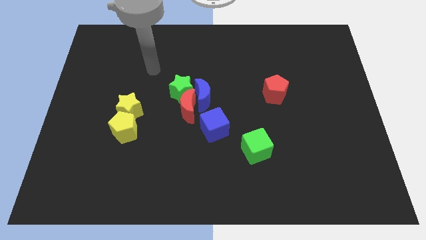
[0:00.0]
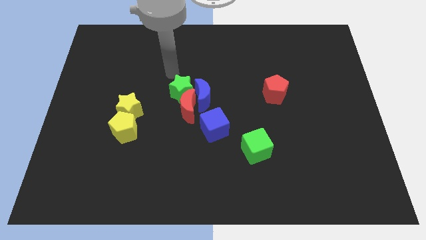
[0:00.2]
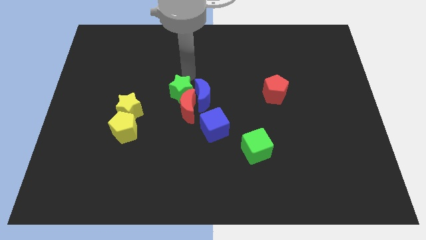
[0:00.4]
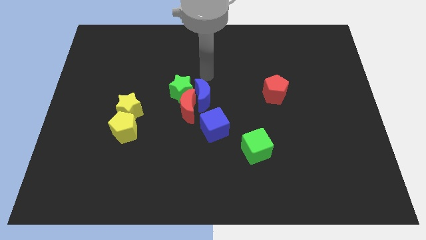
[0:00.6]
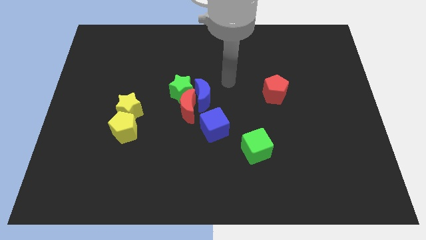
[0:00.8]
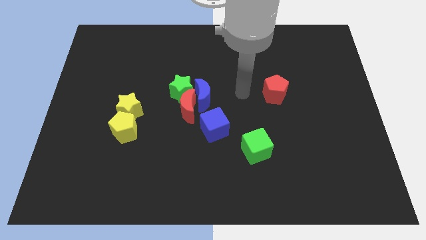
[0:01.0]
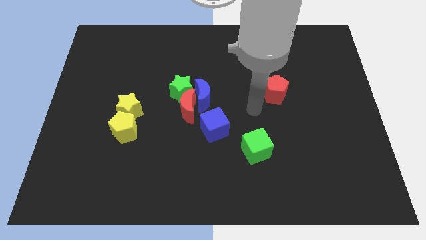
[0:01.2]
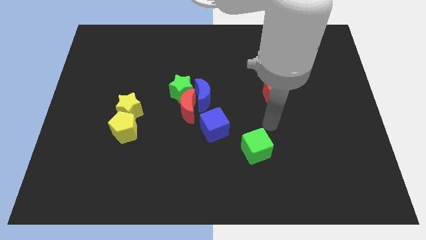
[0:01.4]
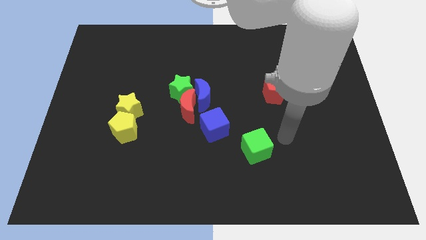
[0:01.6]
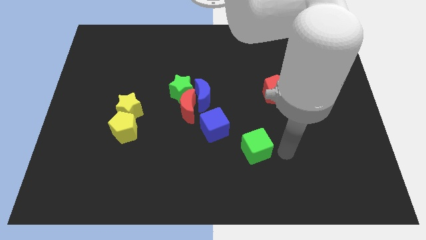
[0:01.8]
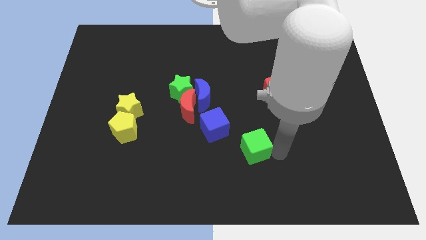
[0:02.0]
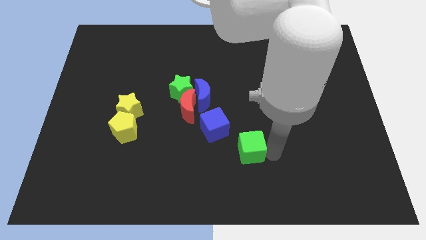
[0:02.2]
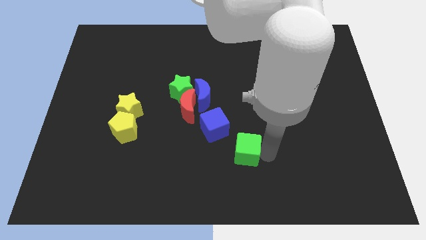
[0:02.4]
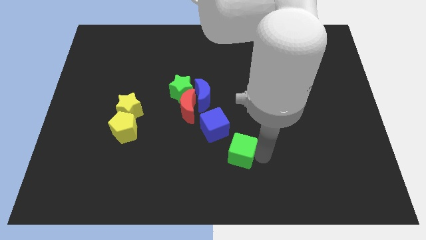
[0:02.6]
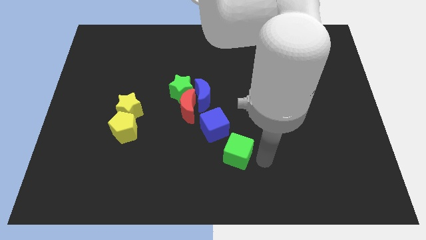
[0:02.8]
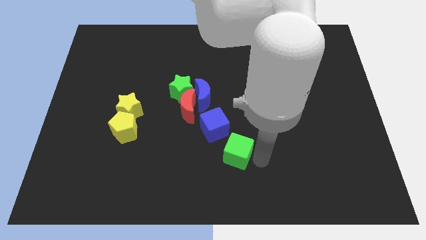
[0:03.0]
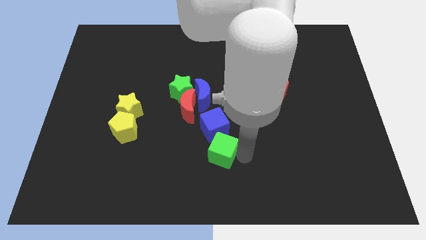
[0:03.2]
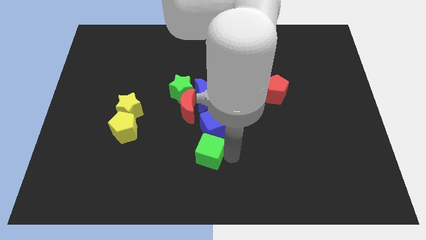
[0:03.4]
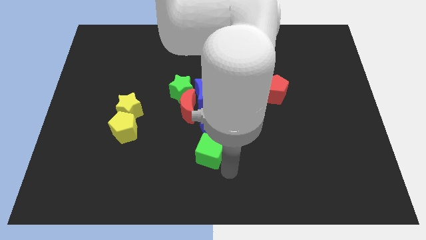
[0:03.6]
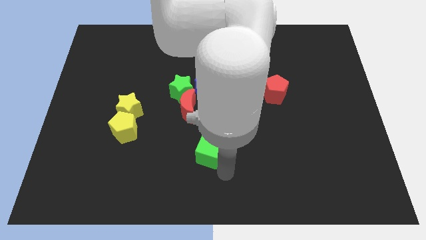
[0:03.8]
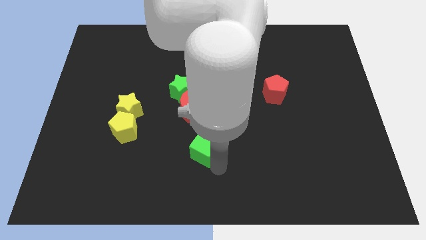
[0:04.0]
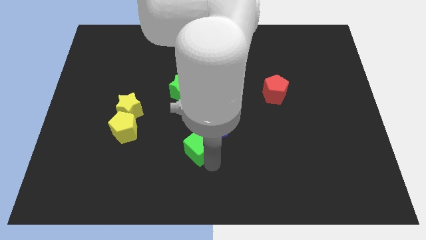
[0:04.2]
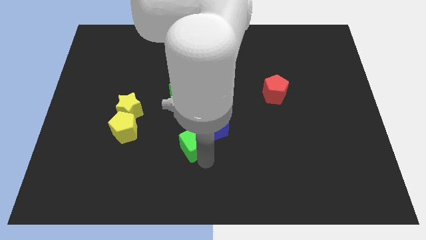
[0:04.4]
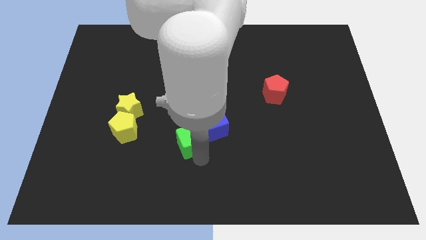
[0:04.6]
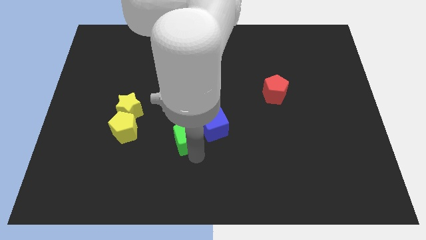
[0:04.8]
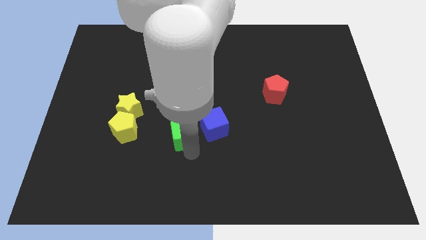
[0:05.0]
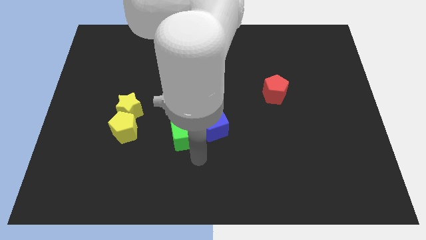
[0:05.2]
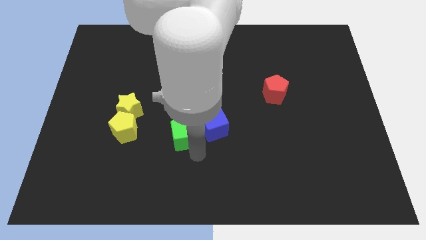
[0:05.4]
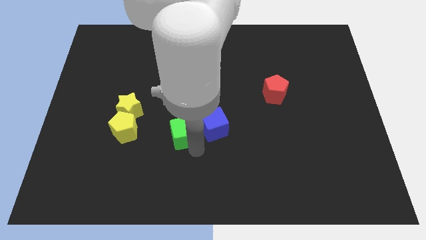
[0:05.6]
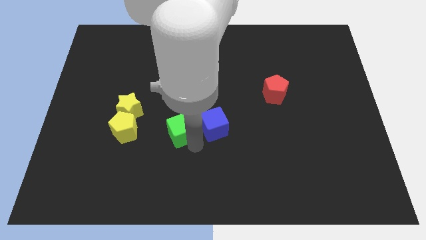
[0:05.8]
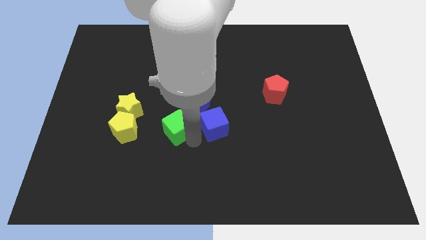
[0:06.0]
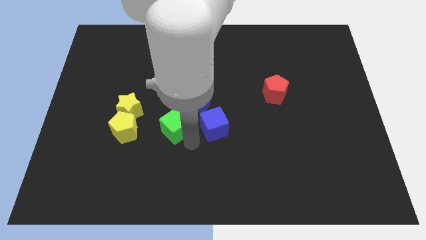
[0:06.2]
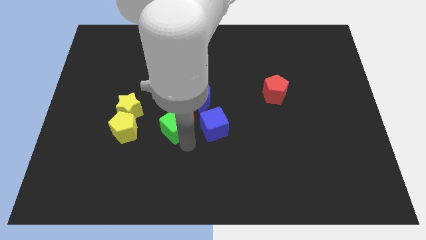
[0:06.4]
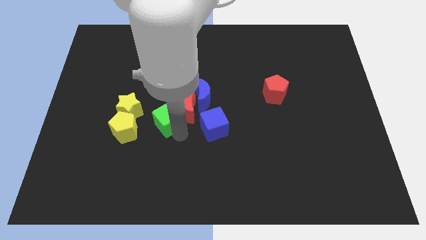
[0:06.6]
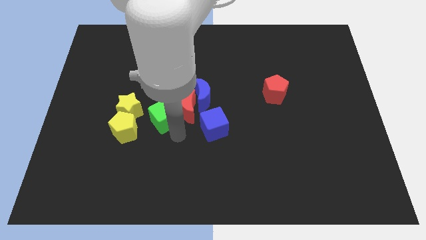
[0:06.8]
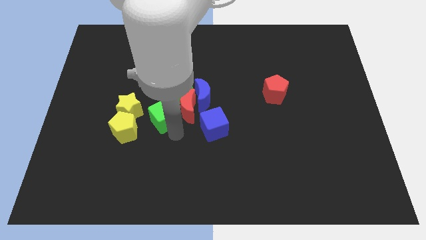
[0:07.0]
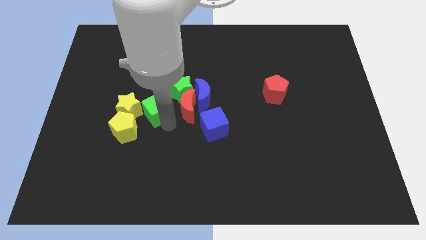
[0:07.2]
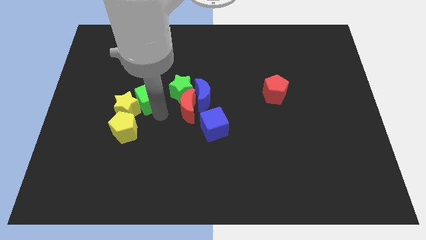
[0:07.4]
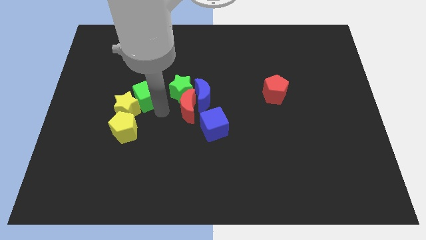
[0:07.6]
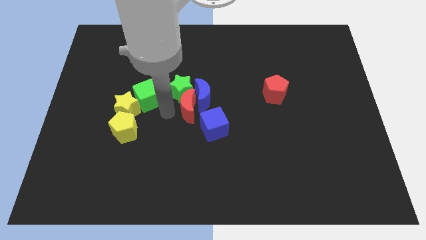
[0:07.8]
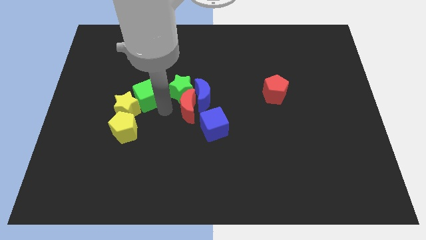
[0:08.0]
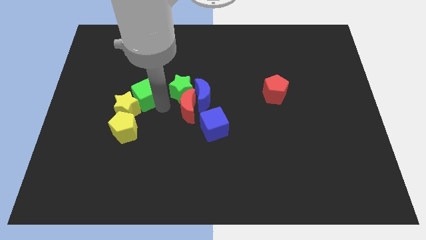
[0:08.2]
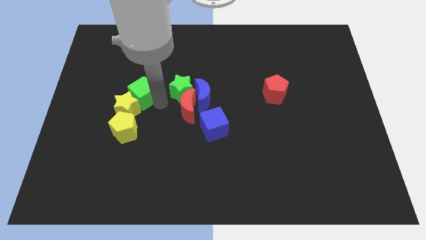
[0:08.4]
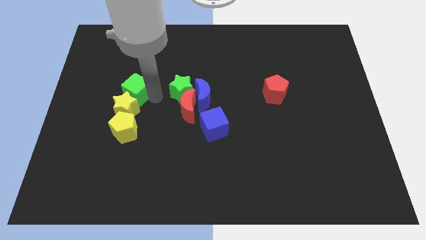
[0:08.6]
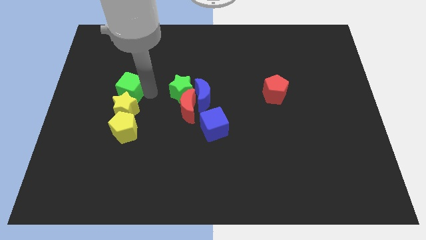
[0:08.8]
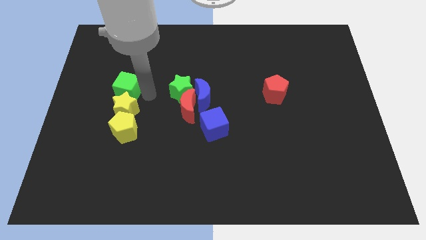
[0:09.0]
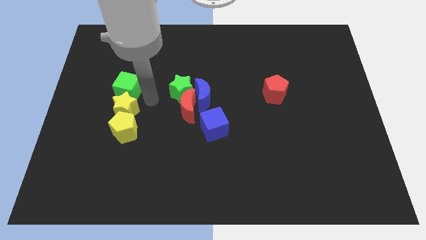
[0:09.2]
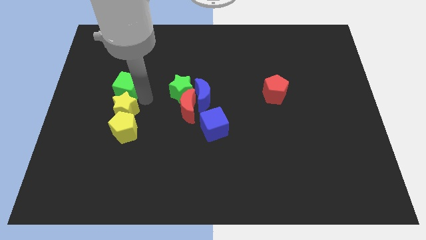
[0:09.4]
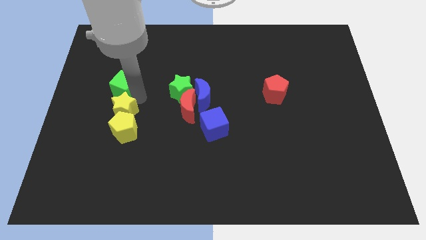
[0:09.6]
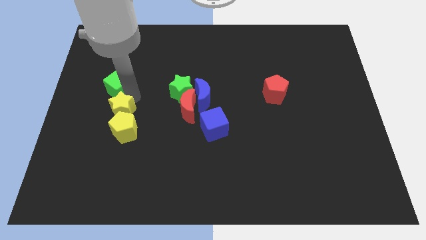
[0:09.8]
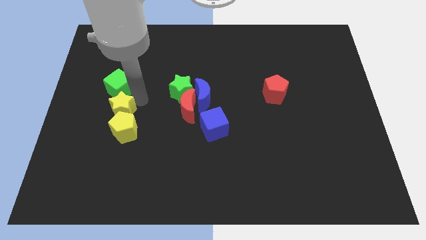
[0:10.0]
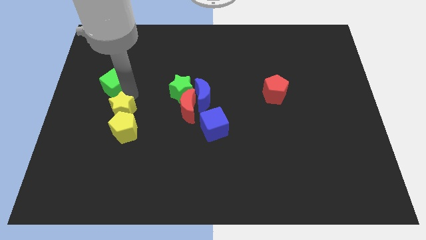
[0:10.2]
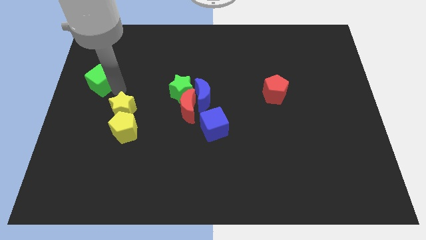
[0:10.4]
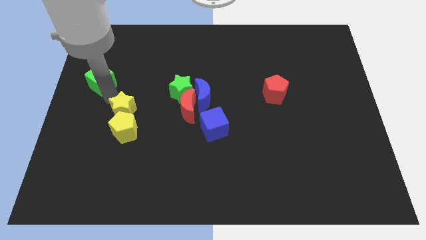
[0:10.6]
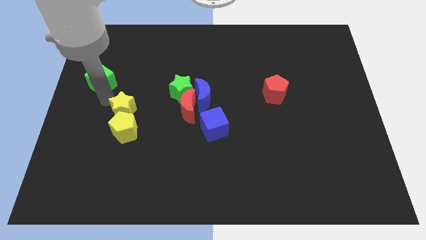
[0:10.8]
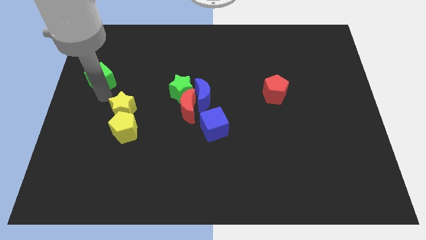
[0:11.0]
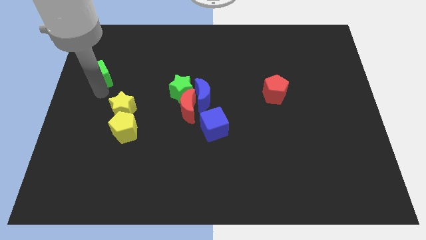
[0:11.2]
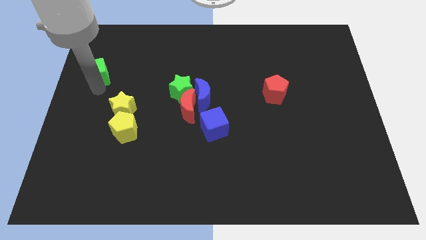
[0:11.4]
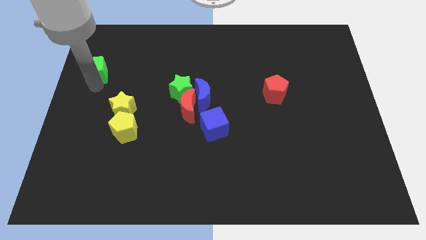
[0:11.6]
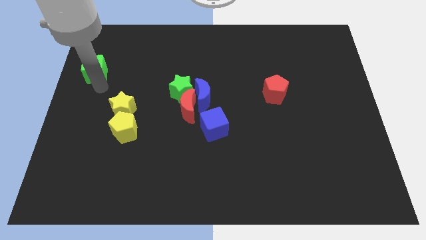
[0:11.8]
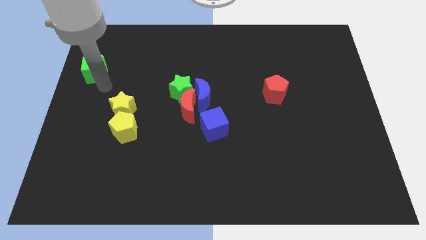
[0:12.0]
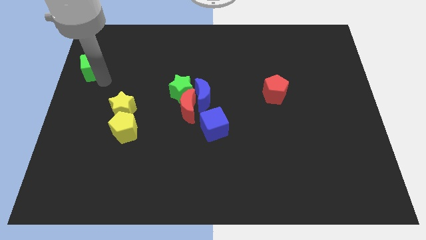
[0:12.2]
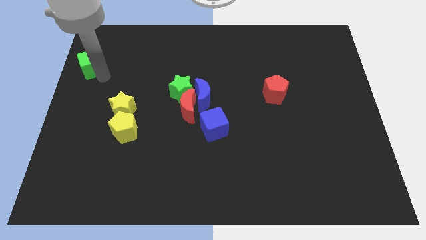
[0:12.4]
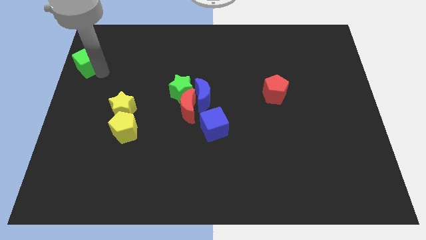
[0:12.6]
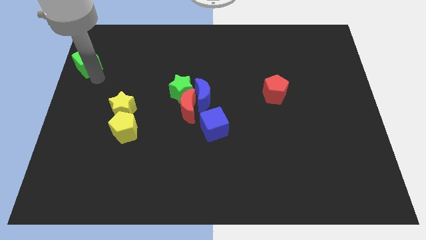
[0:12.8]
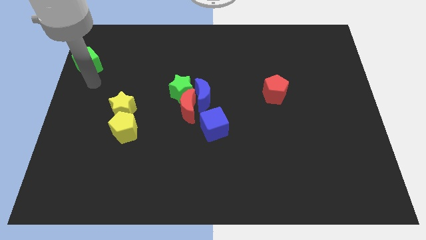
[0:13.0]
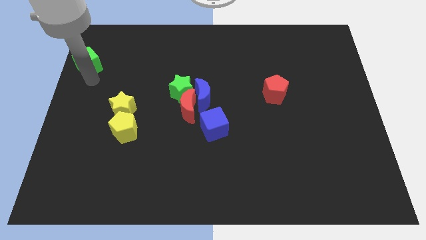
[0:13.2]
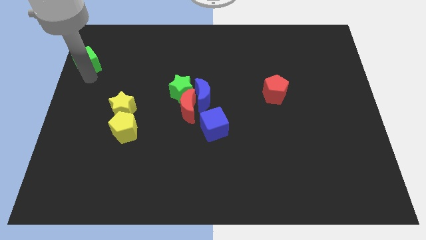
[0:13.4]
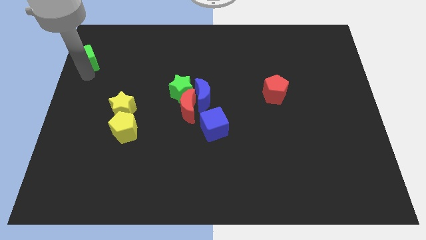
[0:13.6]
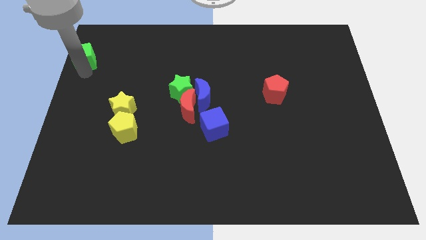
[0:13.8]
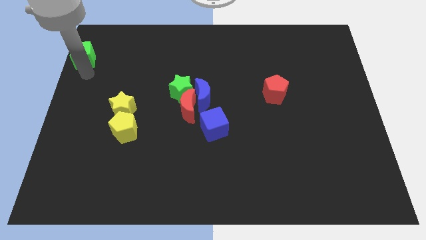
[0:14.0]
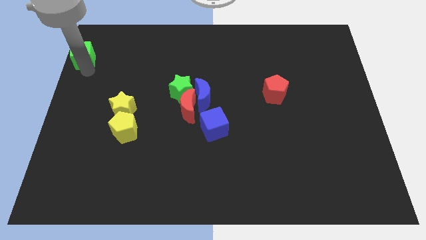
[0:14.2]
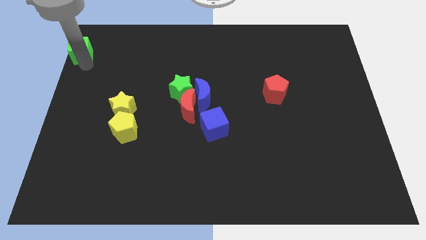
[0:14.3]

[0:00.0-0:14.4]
push the green cube to the top left
